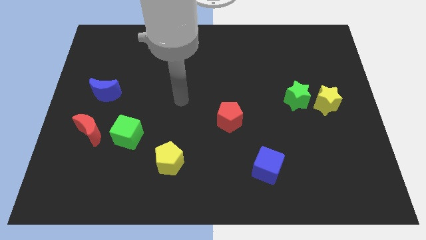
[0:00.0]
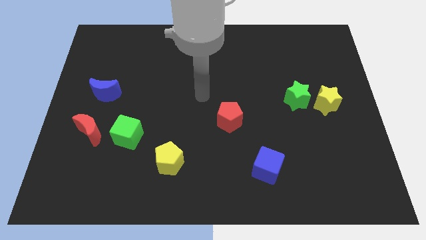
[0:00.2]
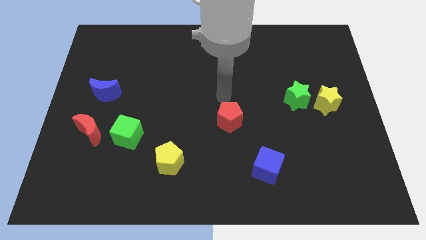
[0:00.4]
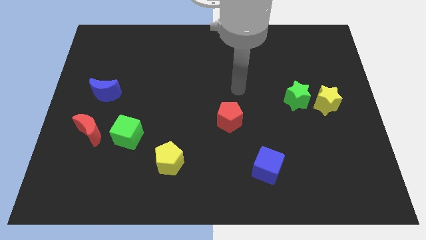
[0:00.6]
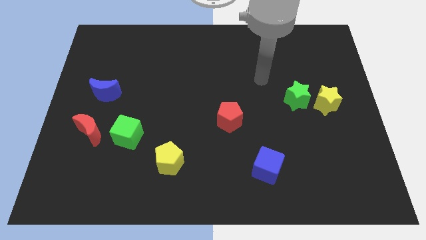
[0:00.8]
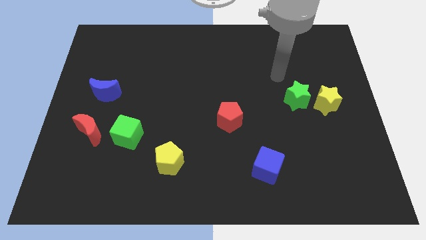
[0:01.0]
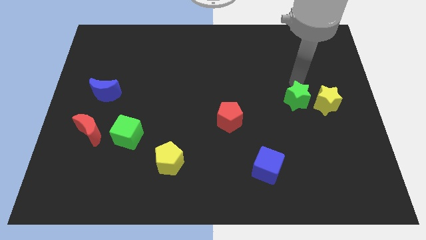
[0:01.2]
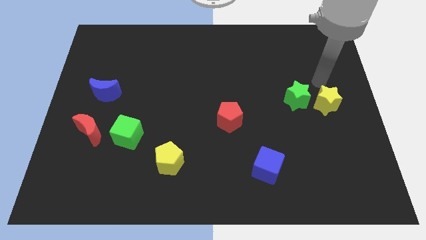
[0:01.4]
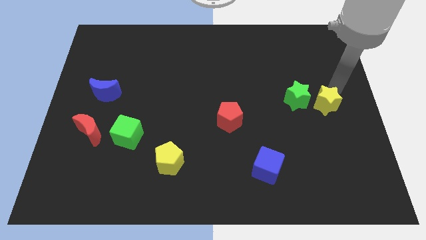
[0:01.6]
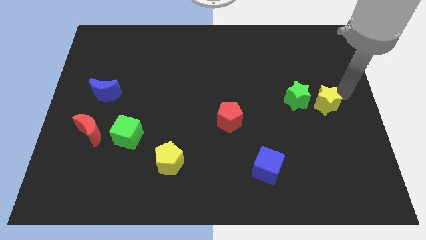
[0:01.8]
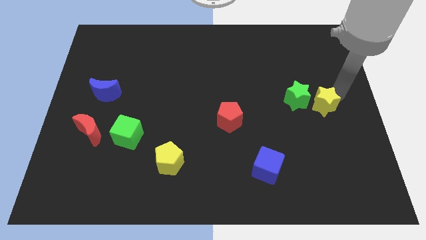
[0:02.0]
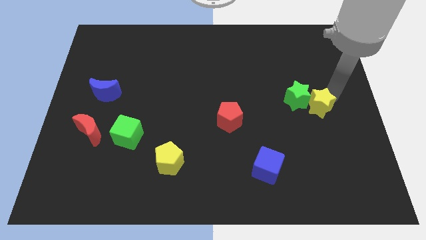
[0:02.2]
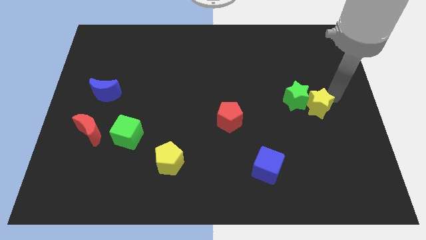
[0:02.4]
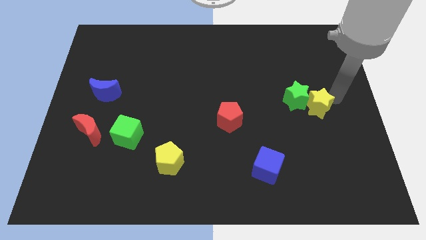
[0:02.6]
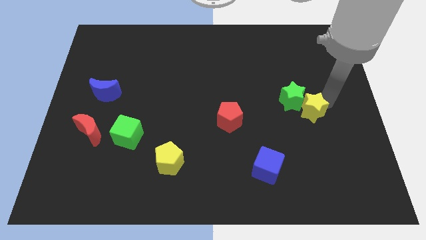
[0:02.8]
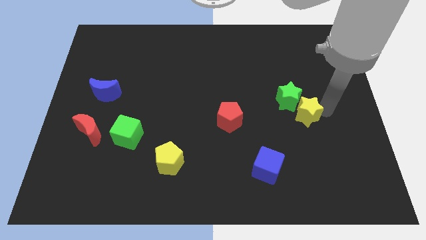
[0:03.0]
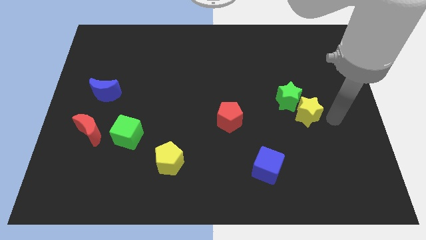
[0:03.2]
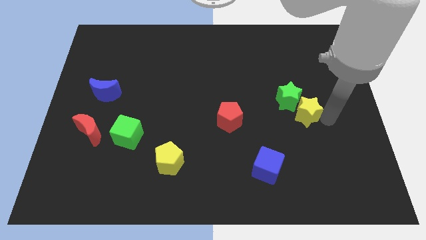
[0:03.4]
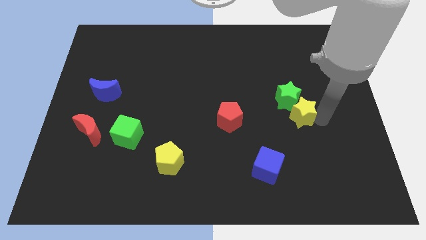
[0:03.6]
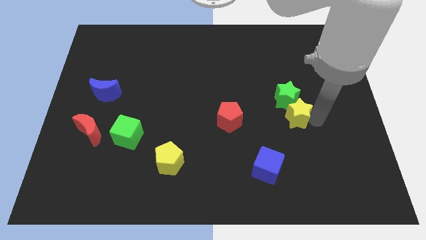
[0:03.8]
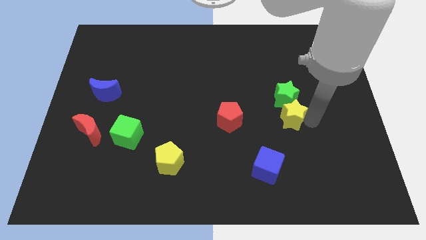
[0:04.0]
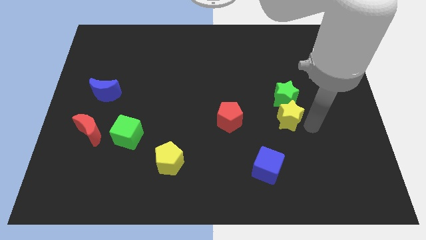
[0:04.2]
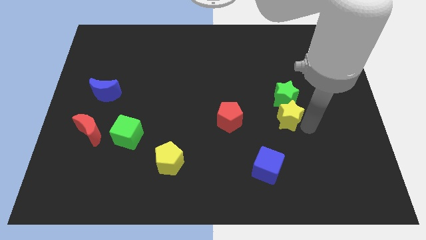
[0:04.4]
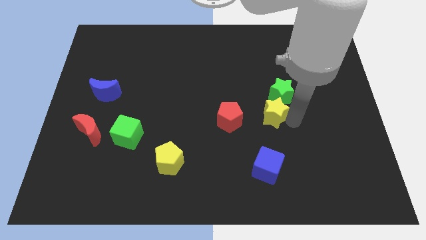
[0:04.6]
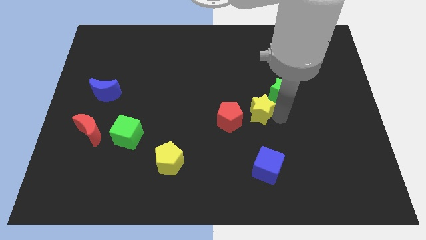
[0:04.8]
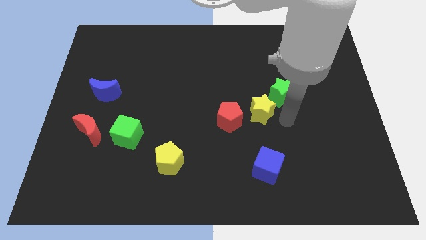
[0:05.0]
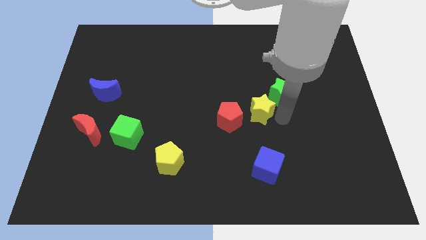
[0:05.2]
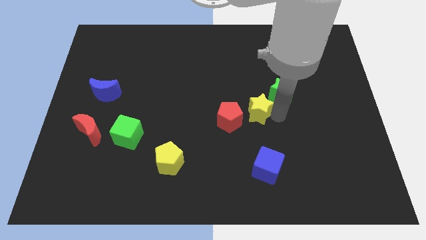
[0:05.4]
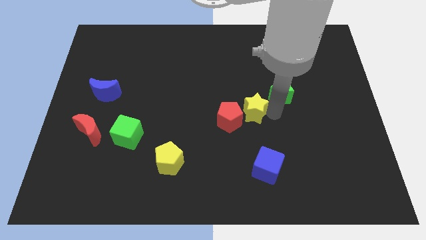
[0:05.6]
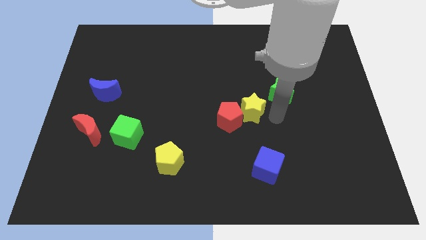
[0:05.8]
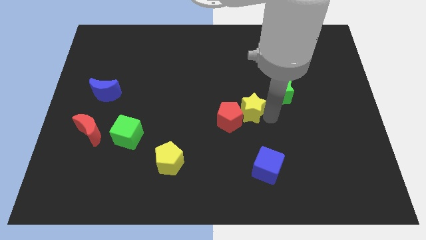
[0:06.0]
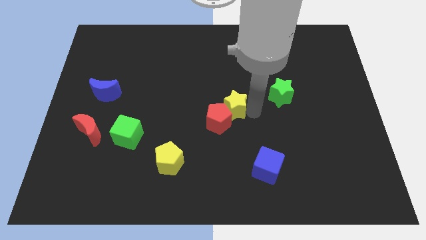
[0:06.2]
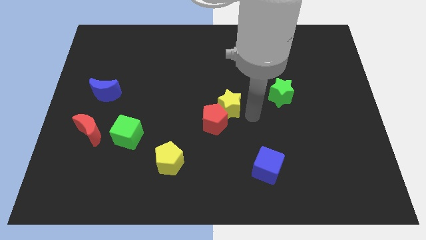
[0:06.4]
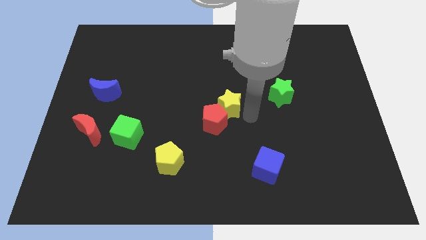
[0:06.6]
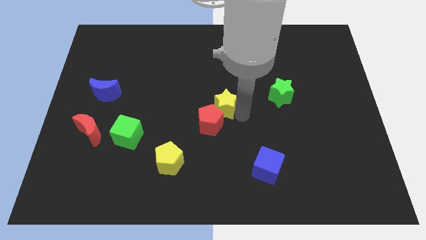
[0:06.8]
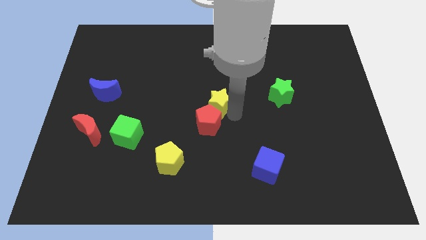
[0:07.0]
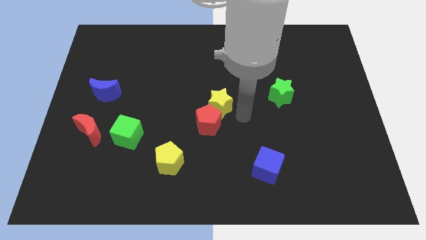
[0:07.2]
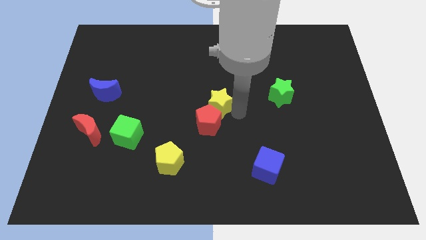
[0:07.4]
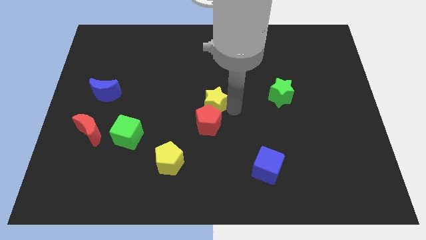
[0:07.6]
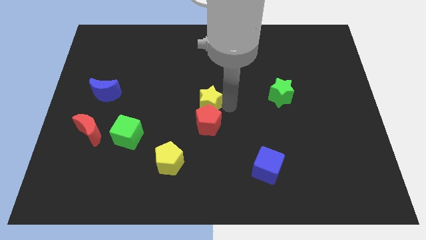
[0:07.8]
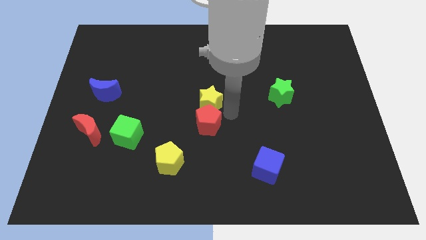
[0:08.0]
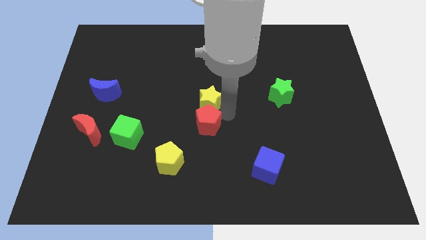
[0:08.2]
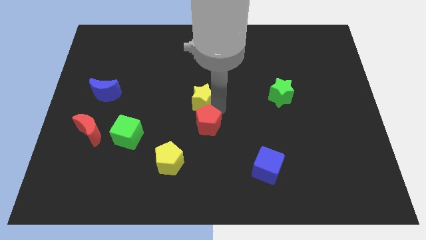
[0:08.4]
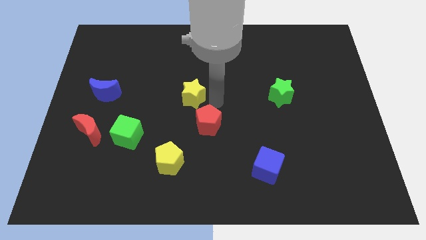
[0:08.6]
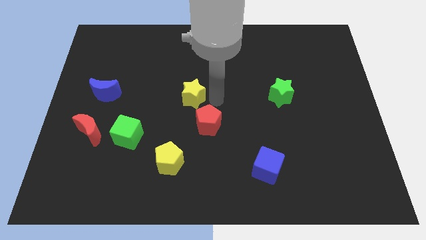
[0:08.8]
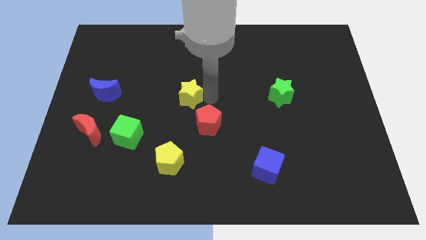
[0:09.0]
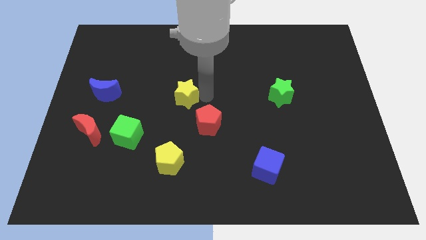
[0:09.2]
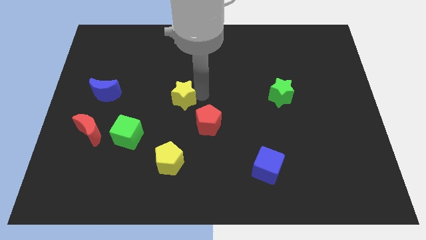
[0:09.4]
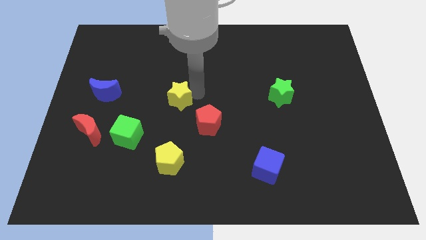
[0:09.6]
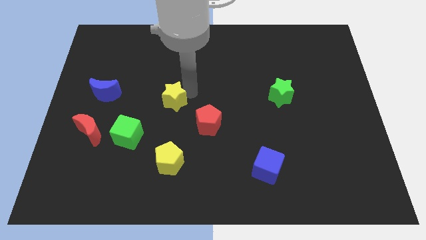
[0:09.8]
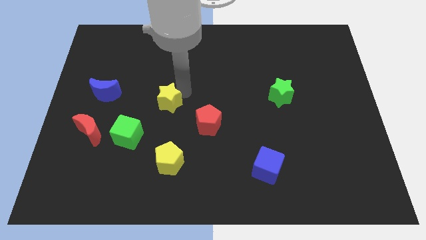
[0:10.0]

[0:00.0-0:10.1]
push the yellow star to the right of the blue moon

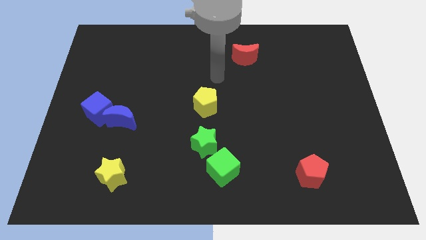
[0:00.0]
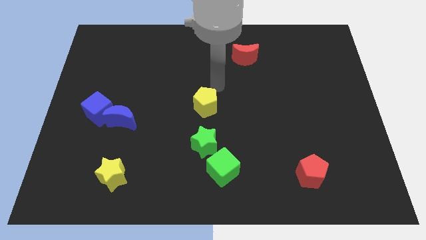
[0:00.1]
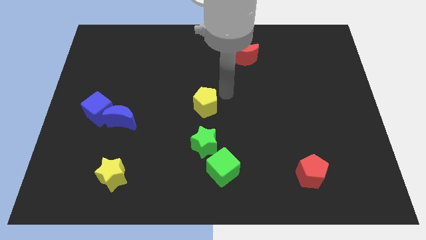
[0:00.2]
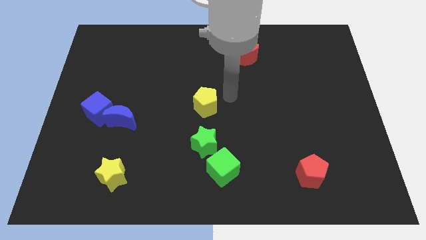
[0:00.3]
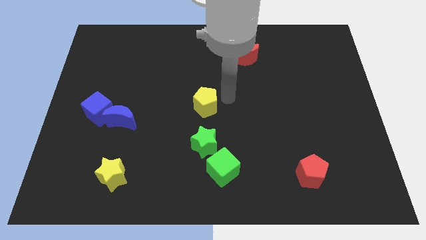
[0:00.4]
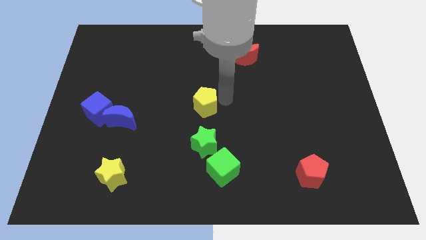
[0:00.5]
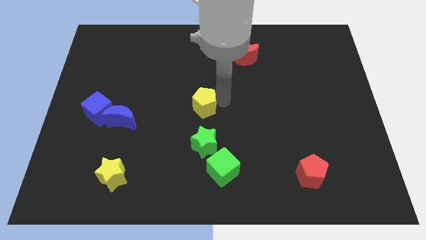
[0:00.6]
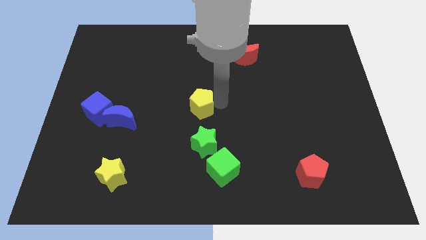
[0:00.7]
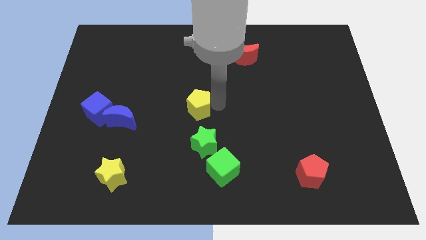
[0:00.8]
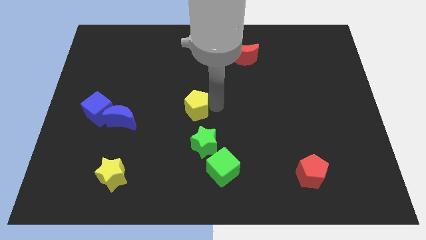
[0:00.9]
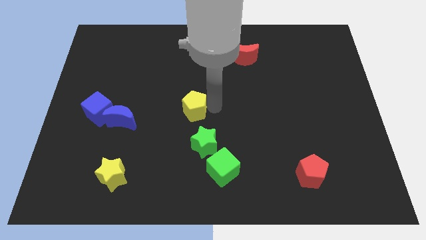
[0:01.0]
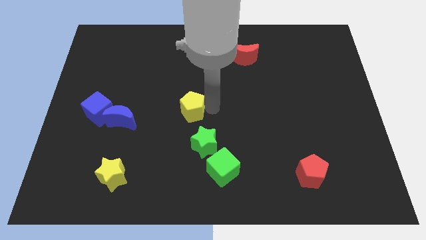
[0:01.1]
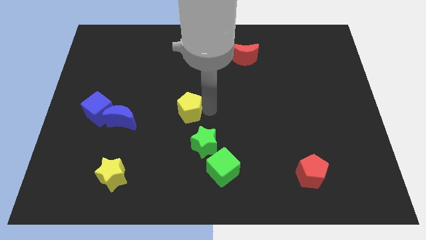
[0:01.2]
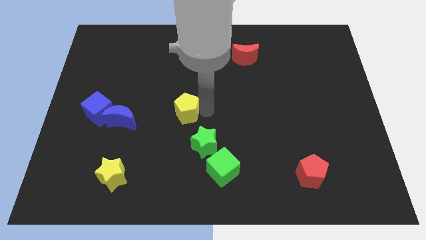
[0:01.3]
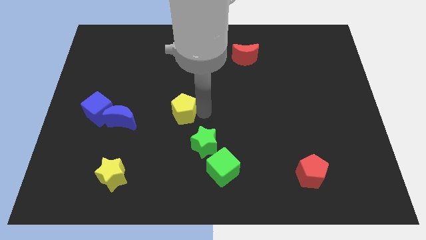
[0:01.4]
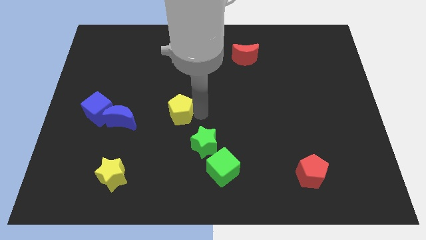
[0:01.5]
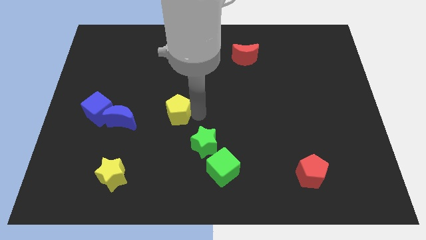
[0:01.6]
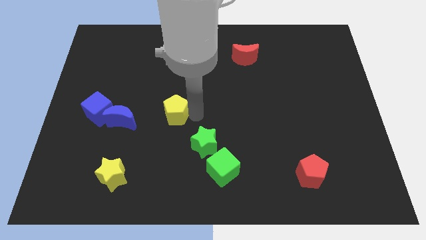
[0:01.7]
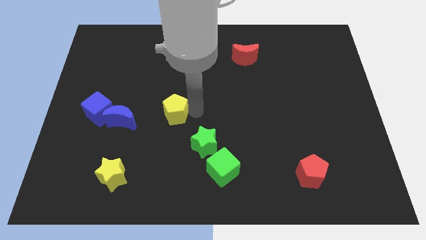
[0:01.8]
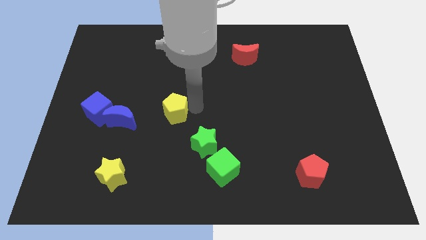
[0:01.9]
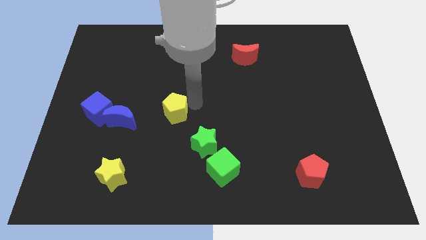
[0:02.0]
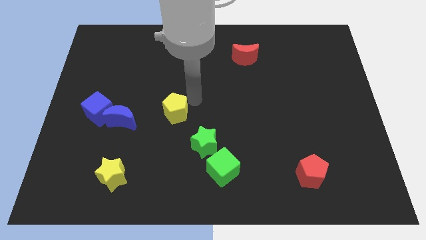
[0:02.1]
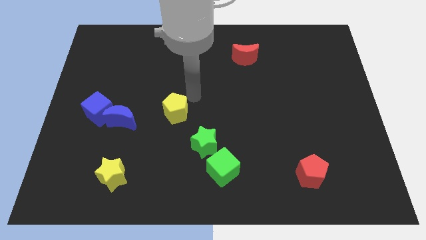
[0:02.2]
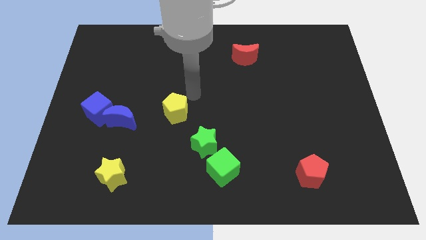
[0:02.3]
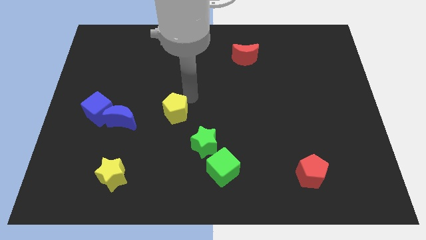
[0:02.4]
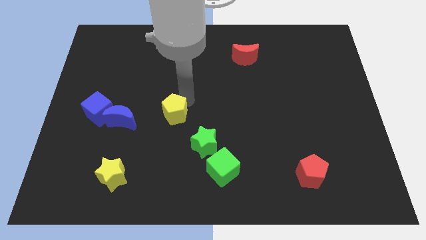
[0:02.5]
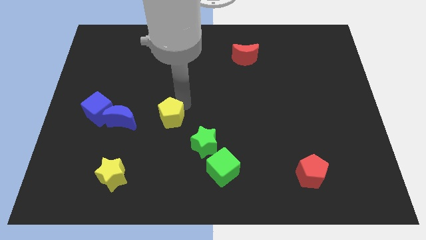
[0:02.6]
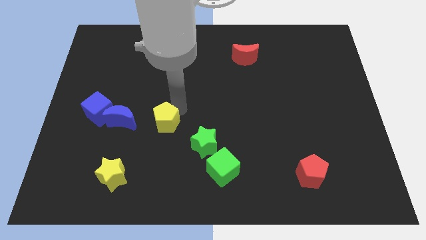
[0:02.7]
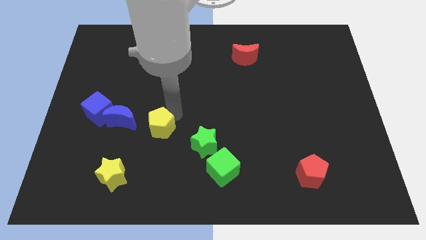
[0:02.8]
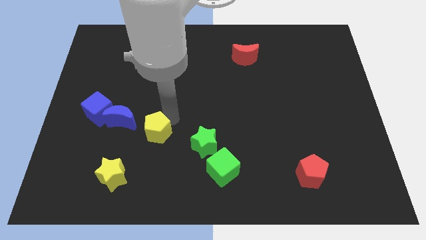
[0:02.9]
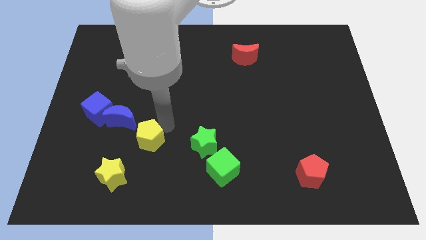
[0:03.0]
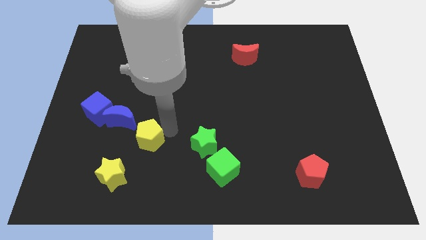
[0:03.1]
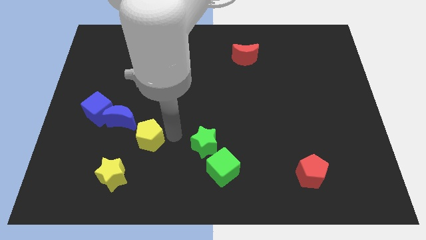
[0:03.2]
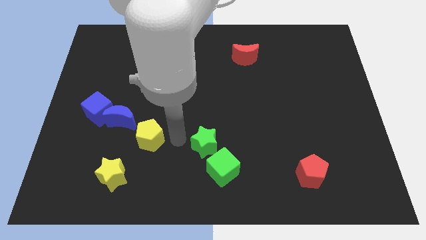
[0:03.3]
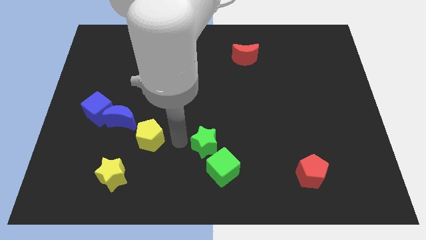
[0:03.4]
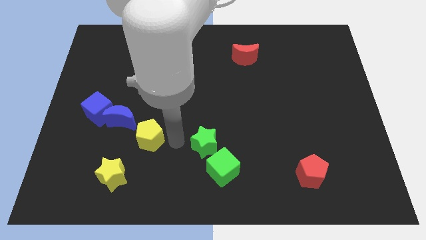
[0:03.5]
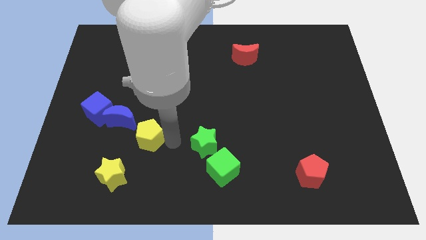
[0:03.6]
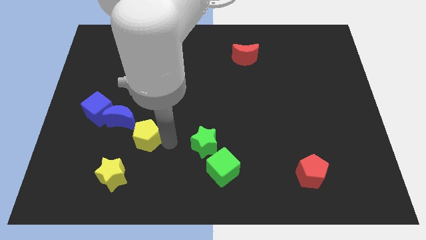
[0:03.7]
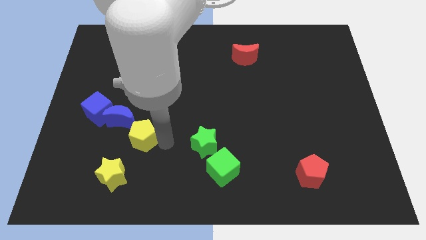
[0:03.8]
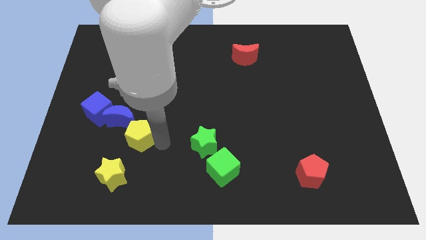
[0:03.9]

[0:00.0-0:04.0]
slide the yellow pentagon to the top of the yellow star
